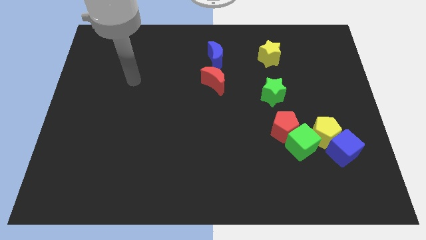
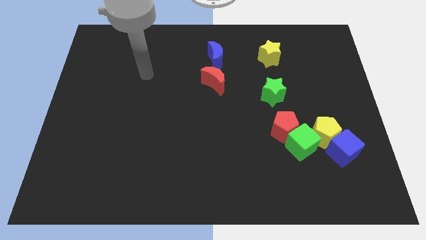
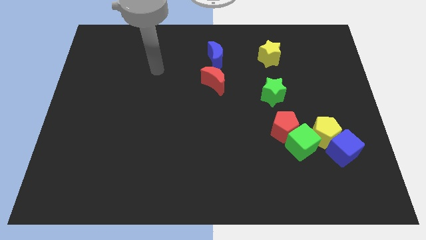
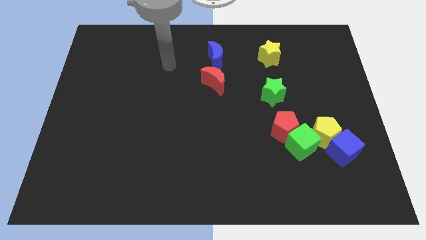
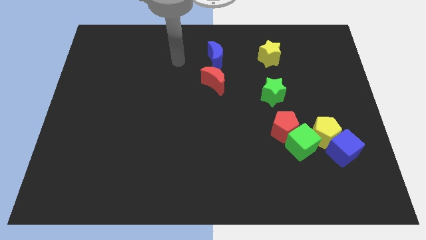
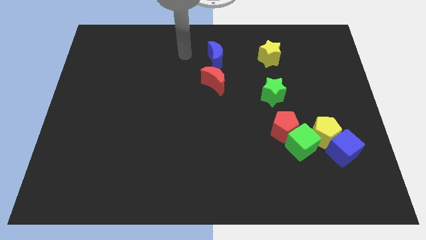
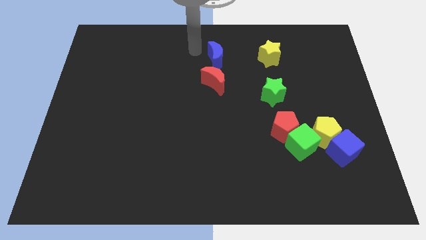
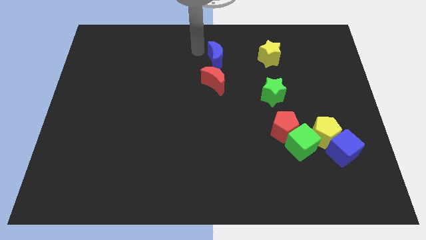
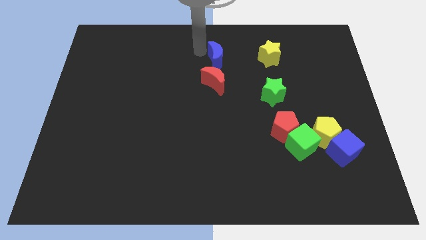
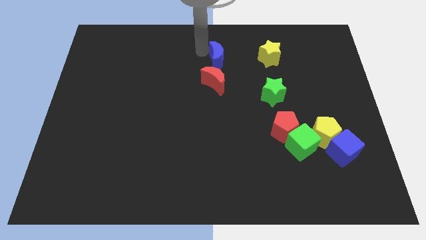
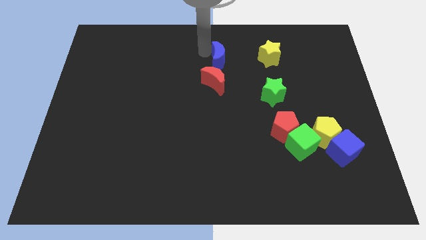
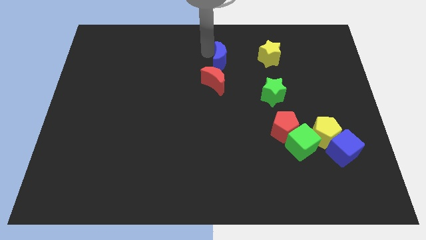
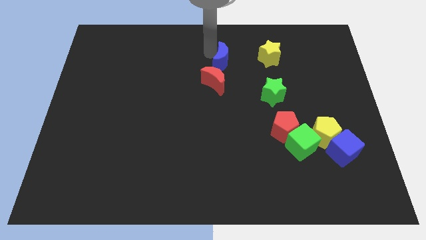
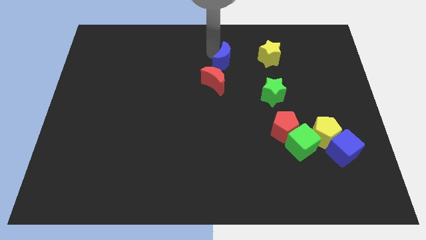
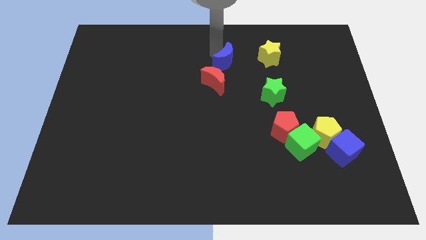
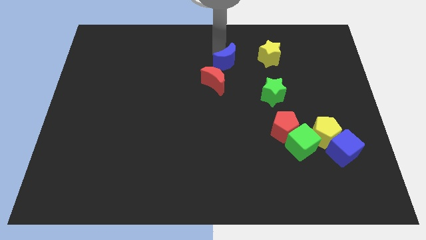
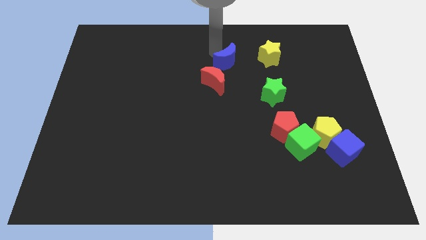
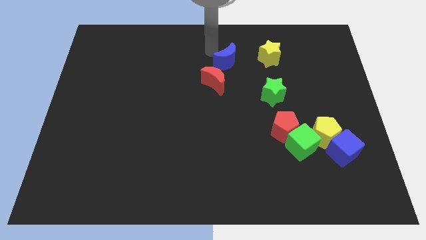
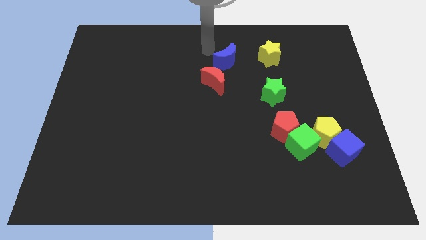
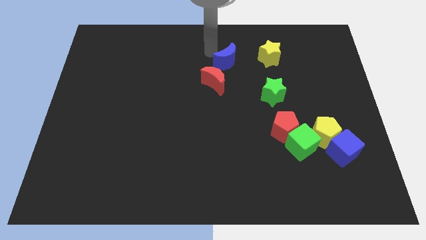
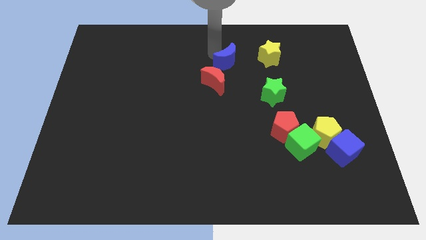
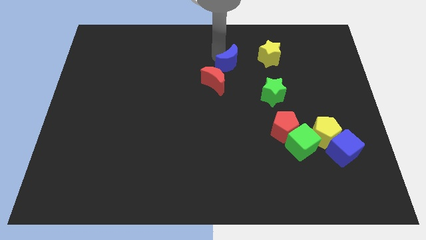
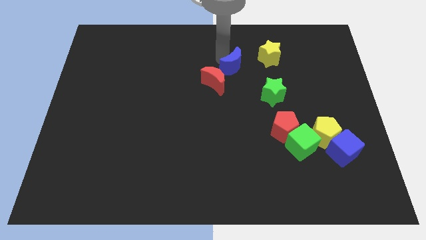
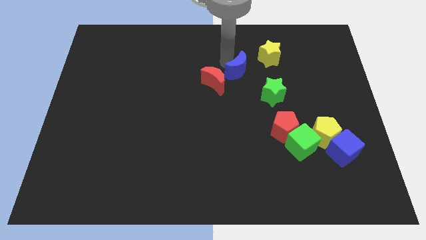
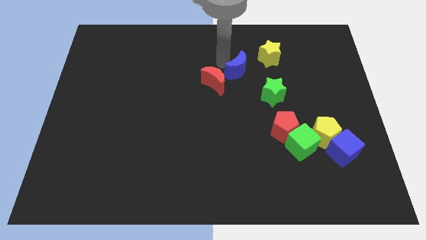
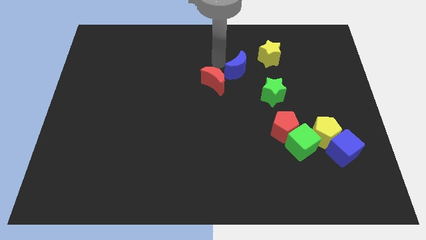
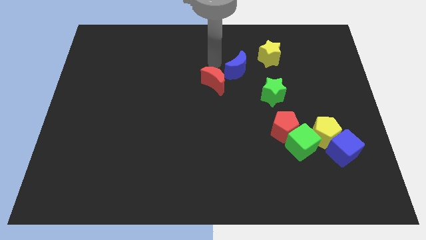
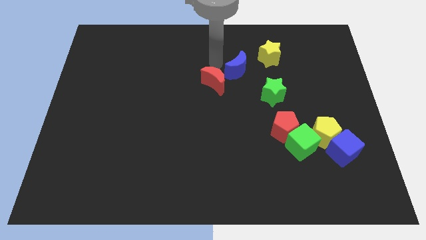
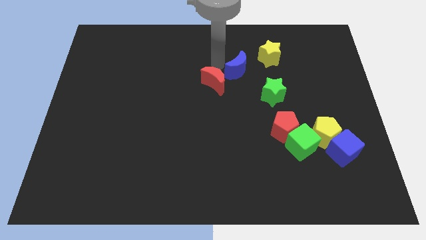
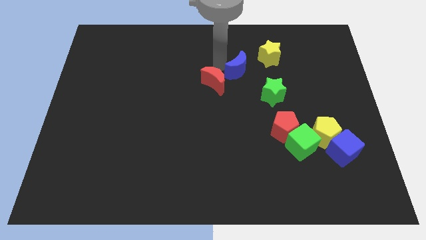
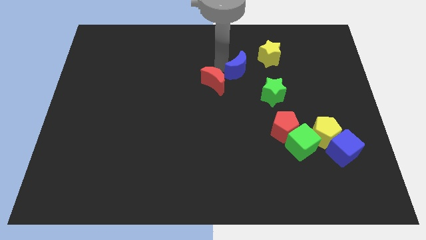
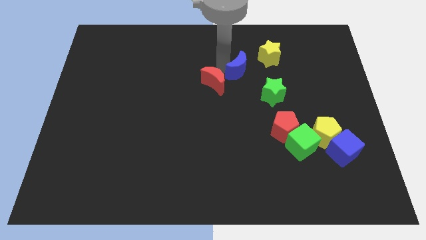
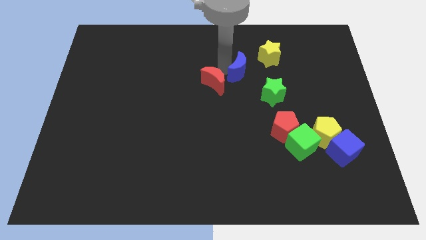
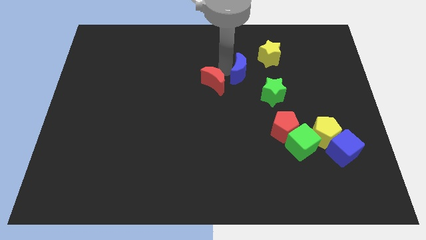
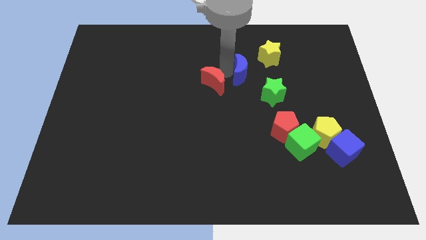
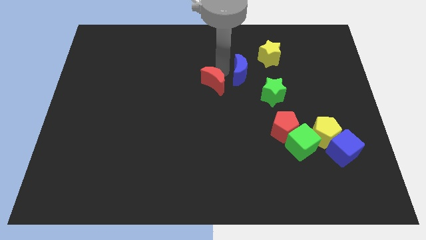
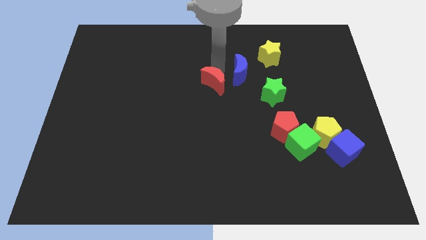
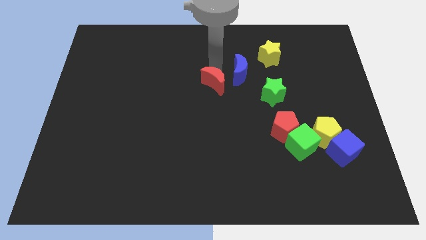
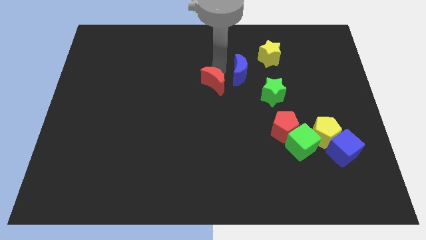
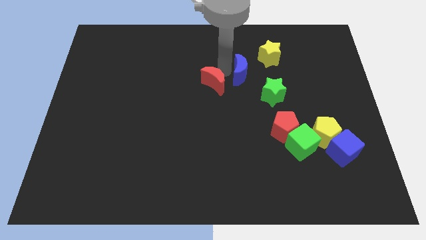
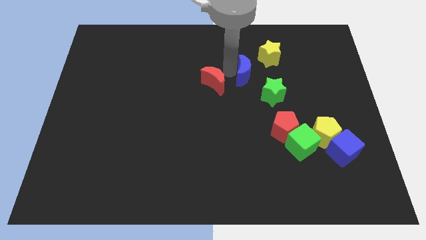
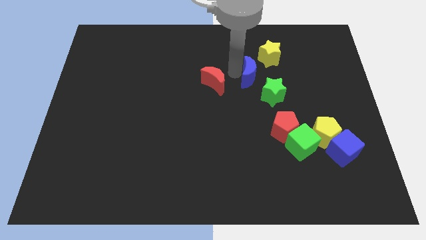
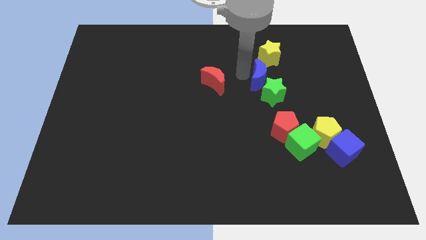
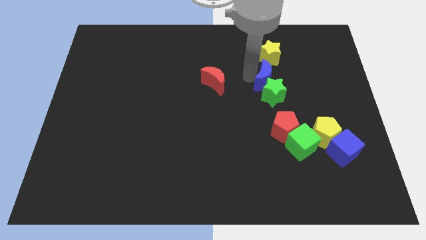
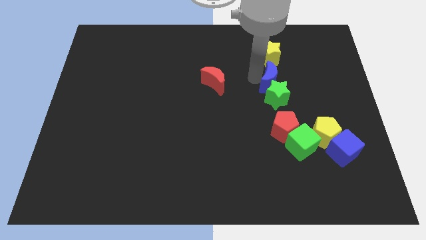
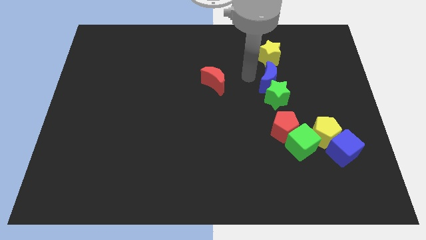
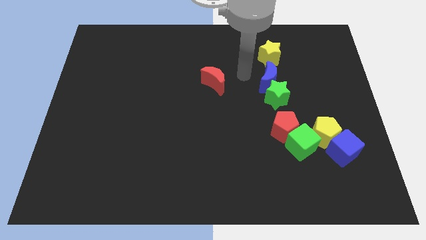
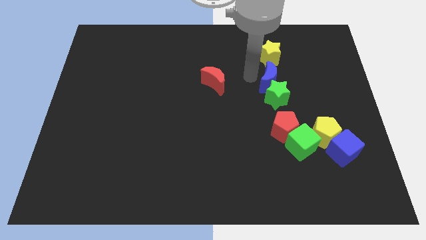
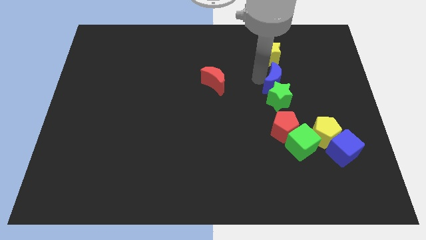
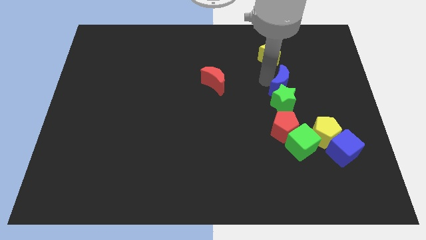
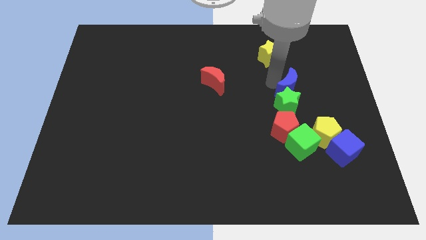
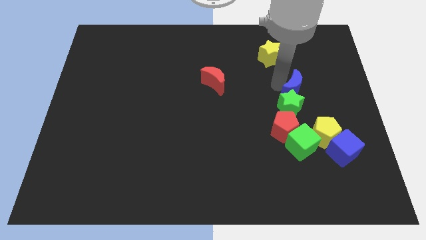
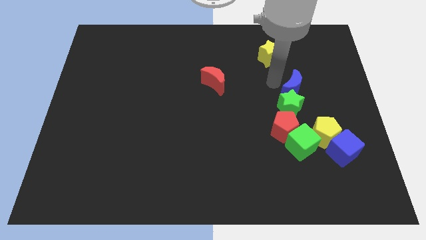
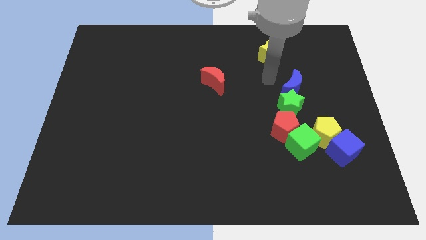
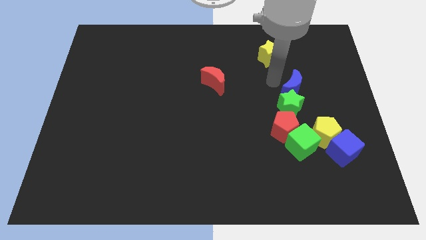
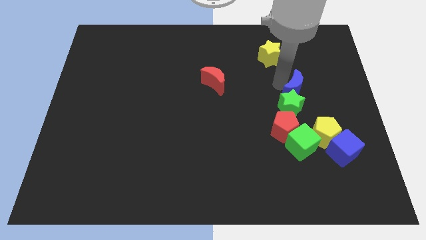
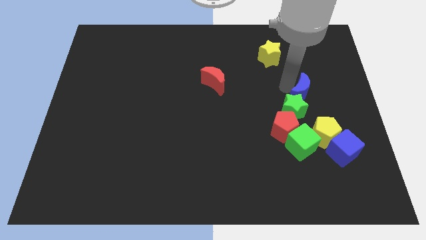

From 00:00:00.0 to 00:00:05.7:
put the blue moon to the top side of the yellow pentagon
